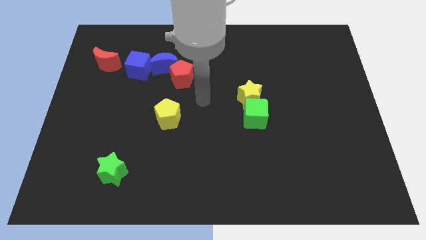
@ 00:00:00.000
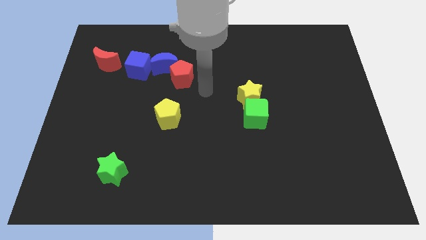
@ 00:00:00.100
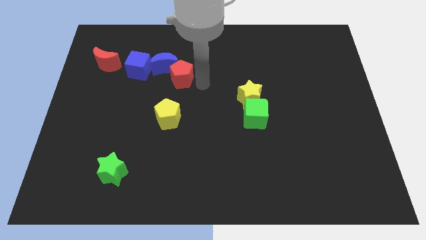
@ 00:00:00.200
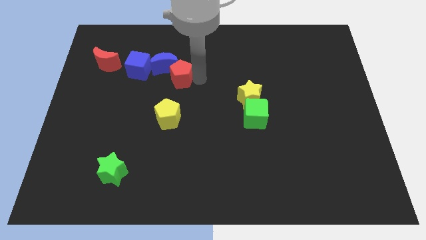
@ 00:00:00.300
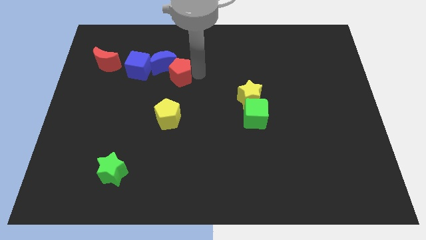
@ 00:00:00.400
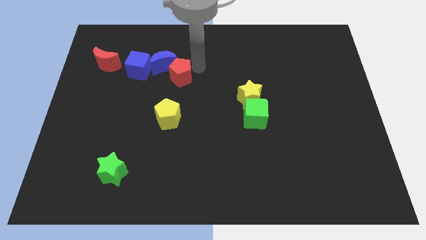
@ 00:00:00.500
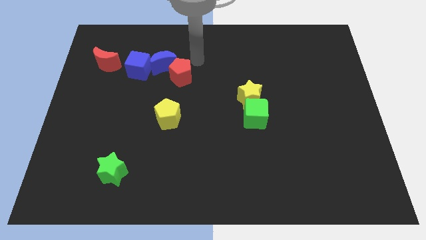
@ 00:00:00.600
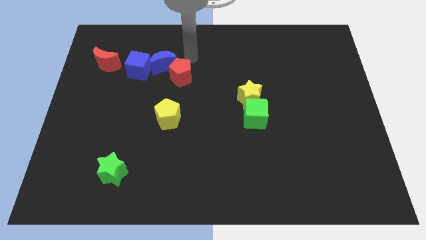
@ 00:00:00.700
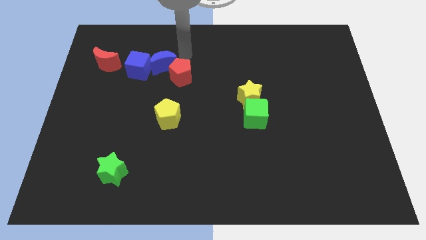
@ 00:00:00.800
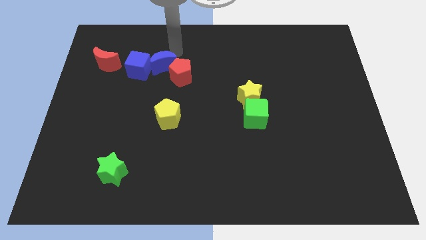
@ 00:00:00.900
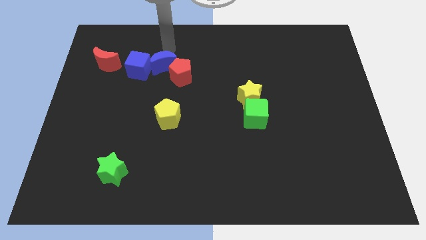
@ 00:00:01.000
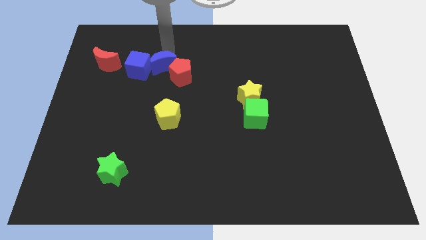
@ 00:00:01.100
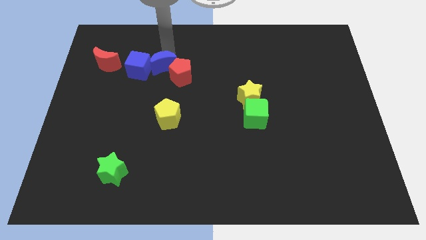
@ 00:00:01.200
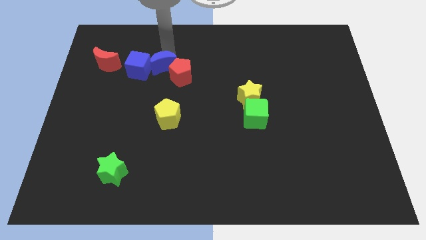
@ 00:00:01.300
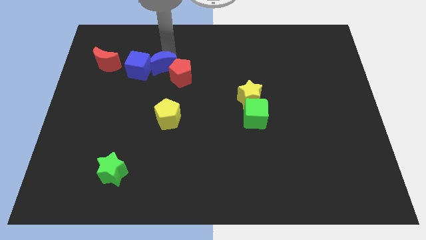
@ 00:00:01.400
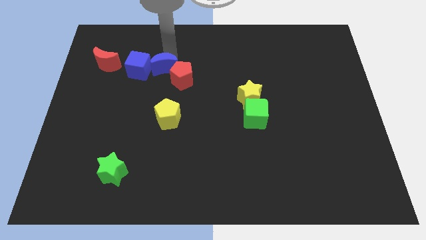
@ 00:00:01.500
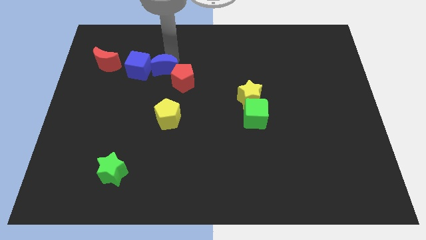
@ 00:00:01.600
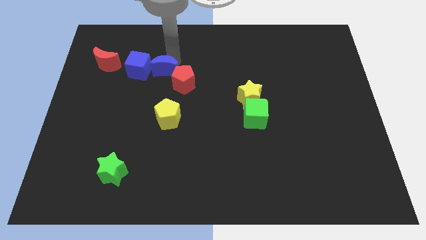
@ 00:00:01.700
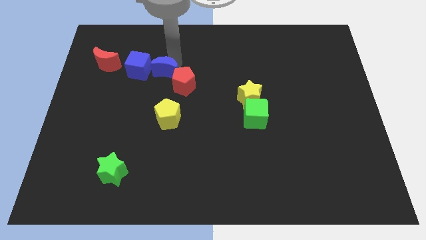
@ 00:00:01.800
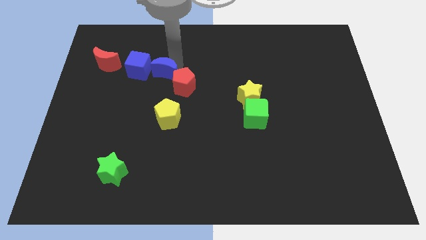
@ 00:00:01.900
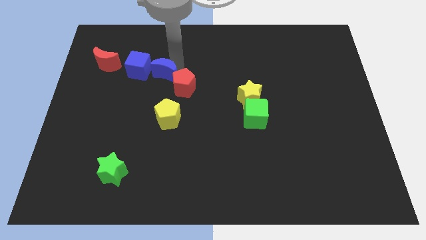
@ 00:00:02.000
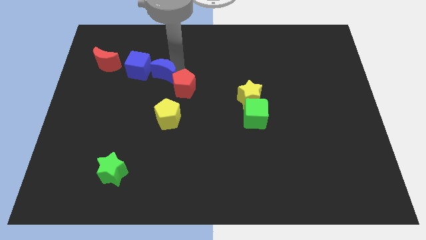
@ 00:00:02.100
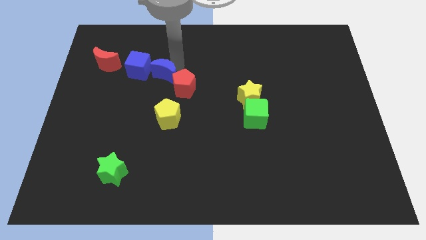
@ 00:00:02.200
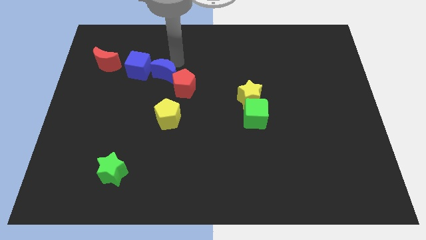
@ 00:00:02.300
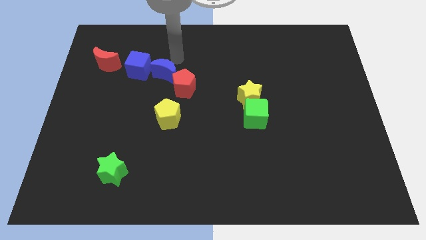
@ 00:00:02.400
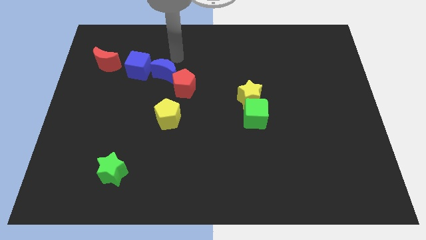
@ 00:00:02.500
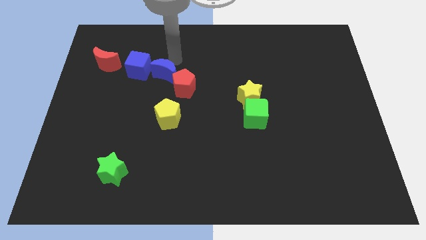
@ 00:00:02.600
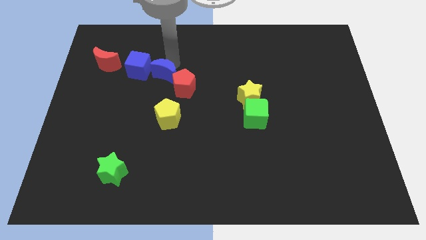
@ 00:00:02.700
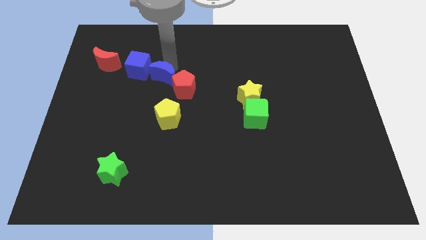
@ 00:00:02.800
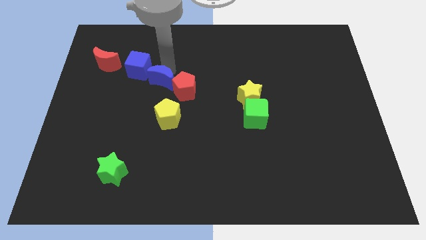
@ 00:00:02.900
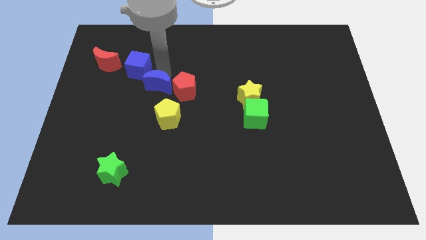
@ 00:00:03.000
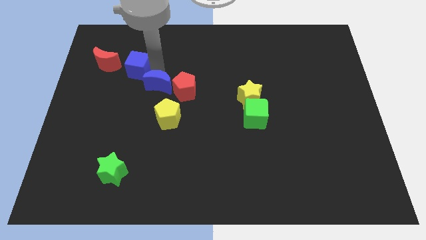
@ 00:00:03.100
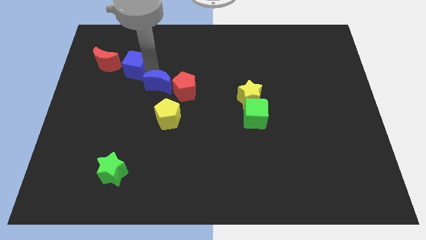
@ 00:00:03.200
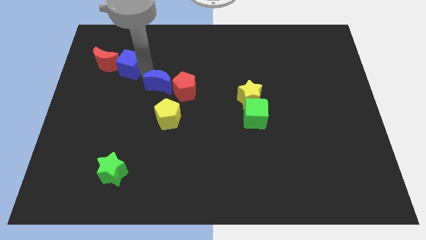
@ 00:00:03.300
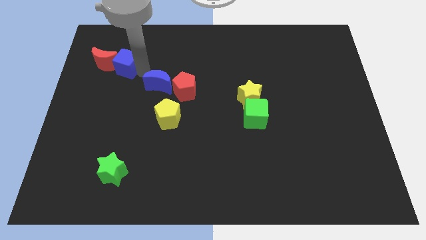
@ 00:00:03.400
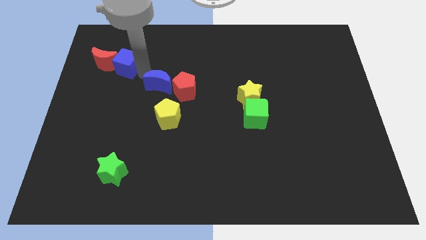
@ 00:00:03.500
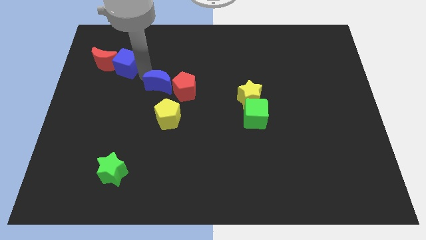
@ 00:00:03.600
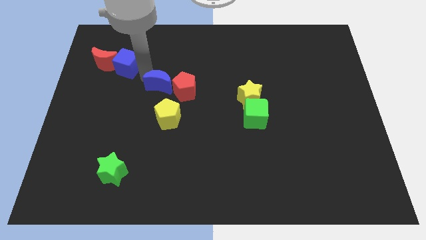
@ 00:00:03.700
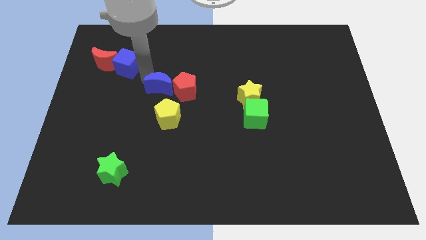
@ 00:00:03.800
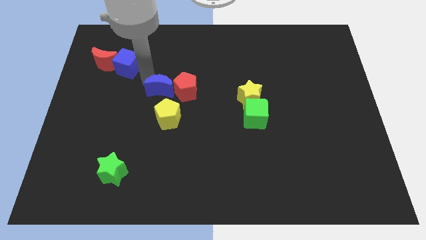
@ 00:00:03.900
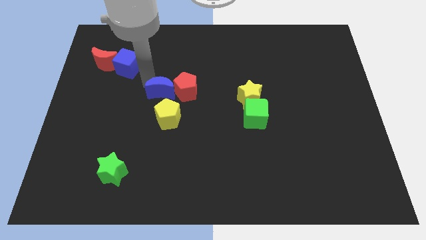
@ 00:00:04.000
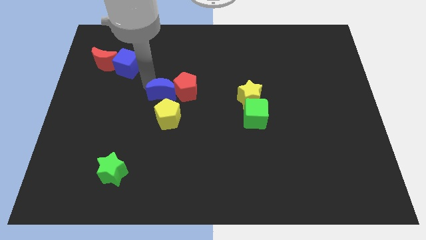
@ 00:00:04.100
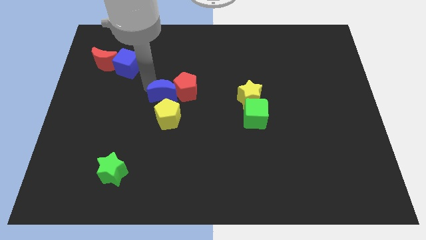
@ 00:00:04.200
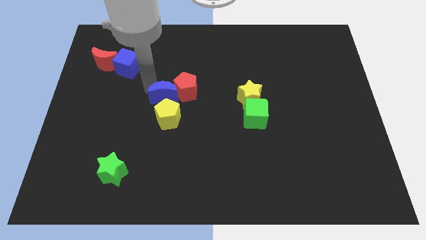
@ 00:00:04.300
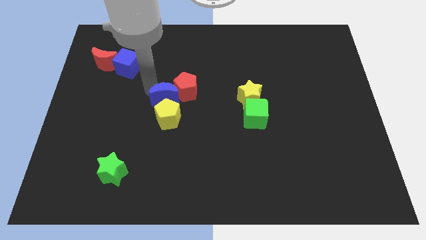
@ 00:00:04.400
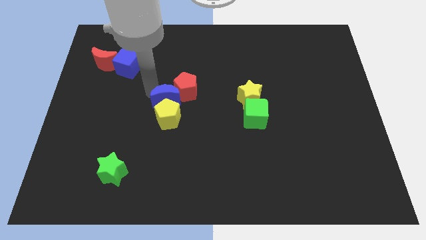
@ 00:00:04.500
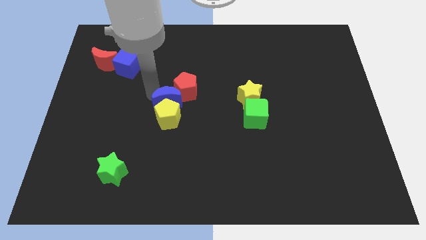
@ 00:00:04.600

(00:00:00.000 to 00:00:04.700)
push the blue moon diagonally down and to the right somewhat

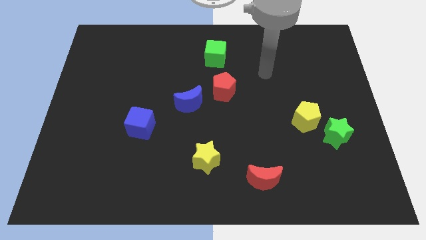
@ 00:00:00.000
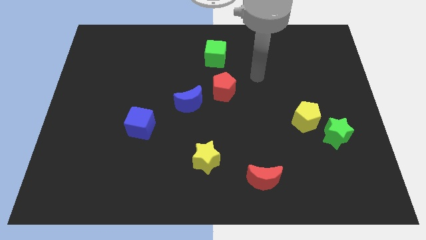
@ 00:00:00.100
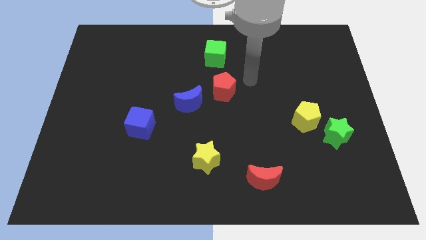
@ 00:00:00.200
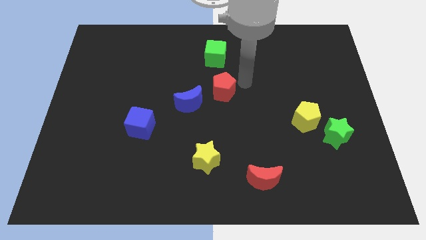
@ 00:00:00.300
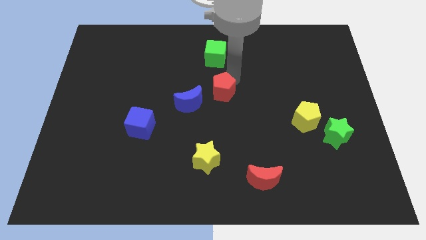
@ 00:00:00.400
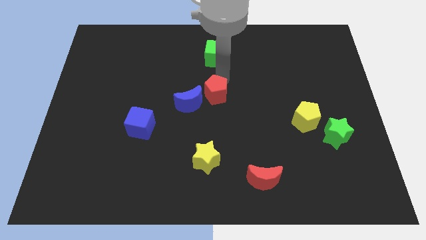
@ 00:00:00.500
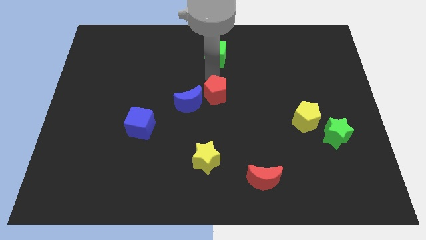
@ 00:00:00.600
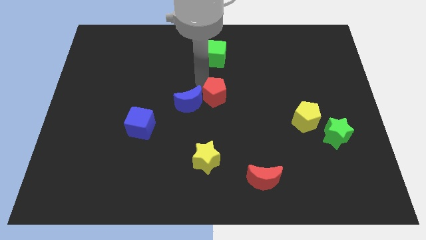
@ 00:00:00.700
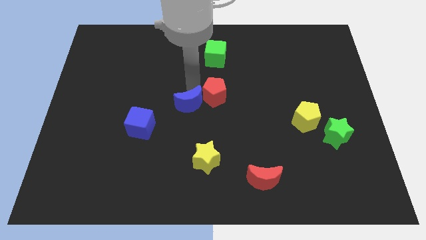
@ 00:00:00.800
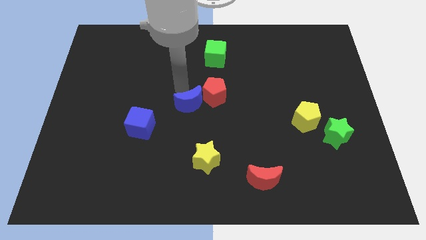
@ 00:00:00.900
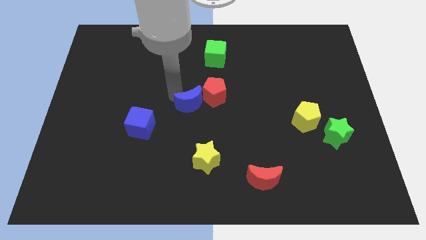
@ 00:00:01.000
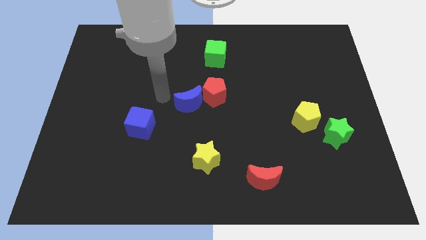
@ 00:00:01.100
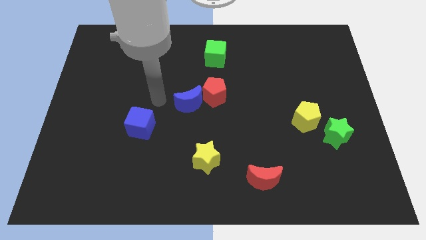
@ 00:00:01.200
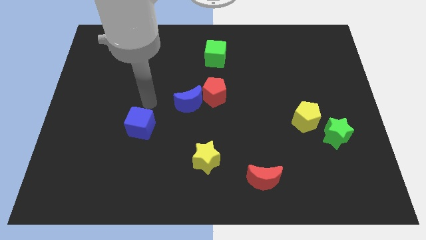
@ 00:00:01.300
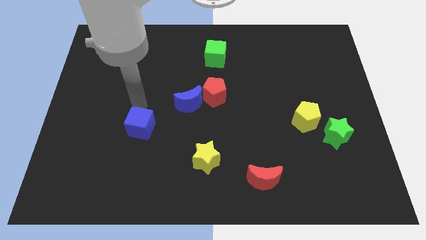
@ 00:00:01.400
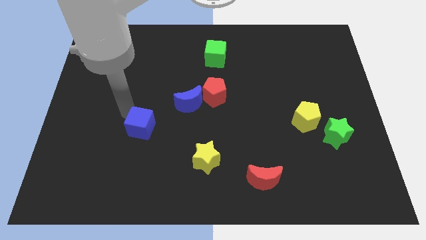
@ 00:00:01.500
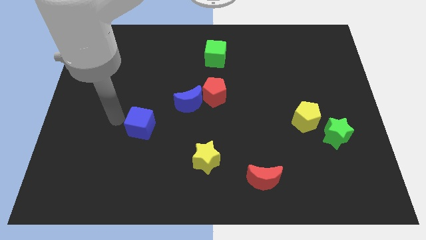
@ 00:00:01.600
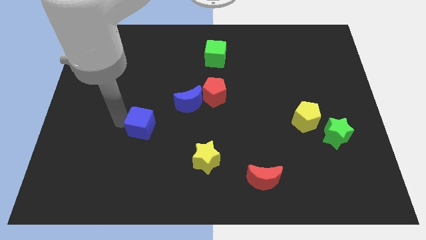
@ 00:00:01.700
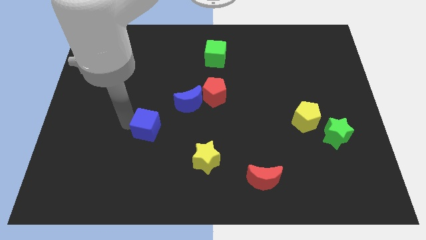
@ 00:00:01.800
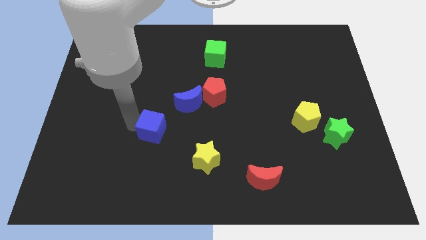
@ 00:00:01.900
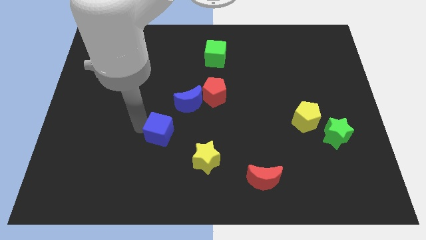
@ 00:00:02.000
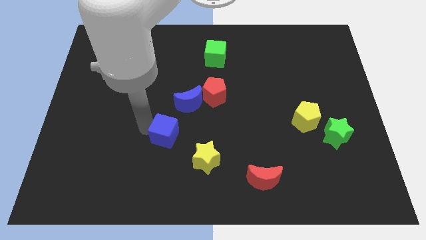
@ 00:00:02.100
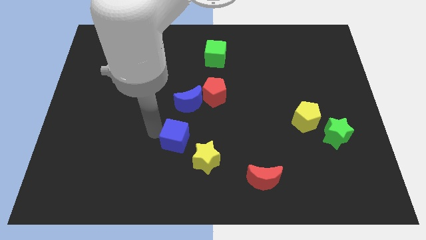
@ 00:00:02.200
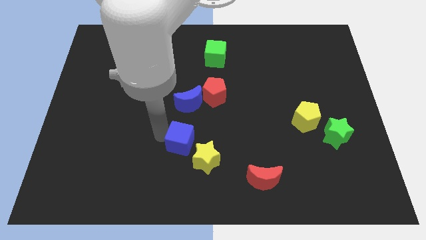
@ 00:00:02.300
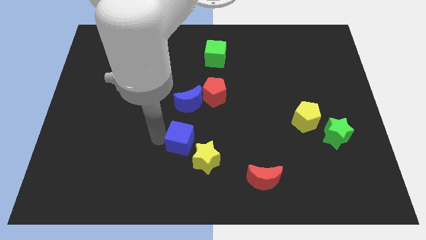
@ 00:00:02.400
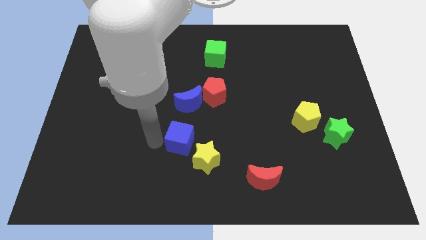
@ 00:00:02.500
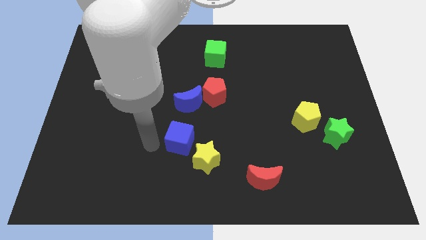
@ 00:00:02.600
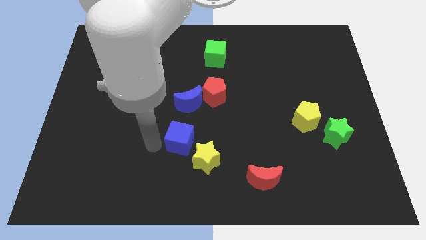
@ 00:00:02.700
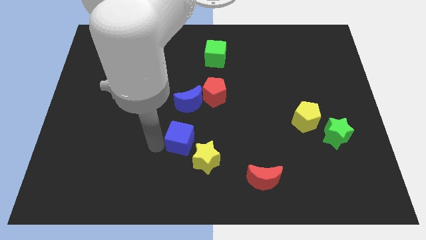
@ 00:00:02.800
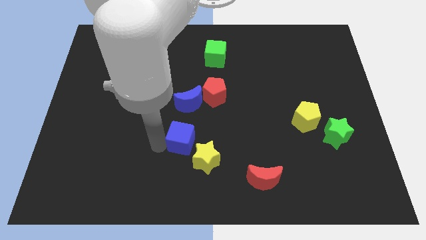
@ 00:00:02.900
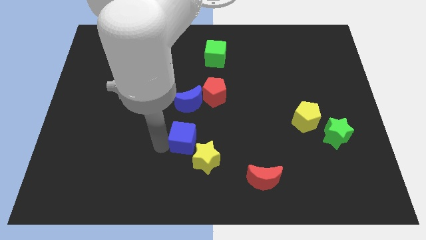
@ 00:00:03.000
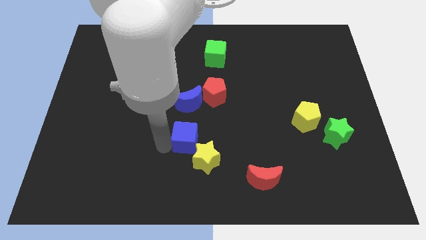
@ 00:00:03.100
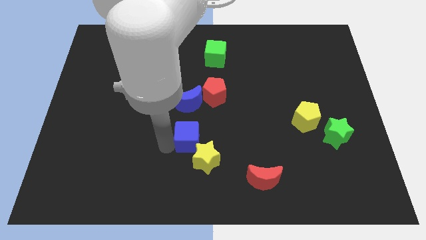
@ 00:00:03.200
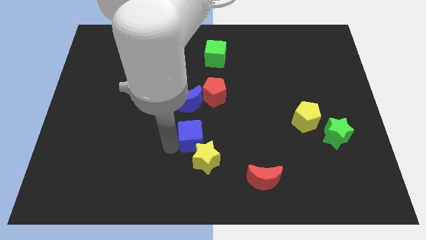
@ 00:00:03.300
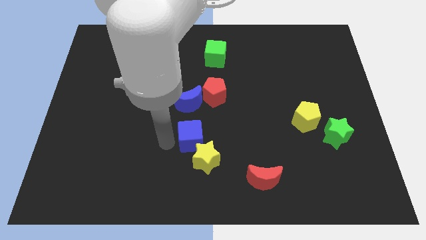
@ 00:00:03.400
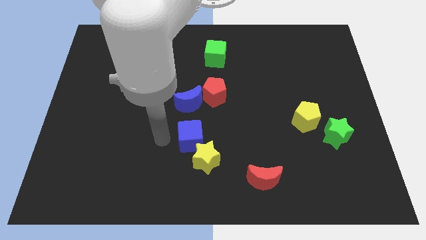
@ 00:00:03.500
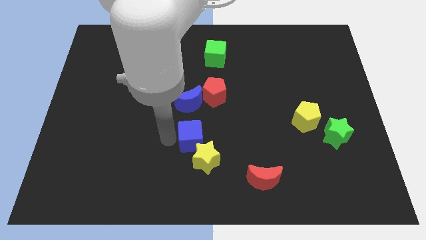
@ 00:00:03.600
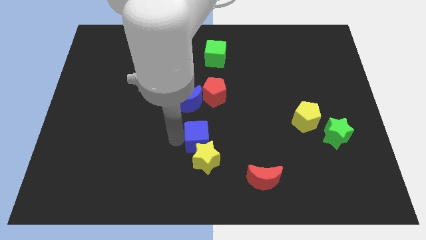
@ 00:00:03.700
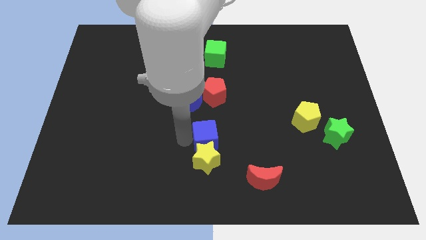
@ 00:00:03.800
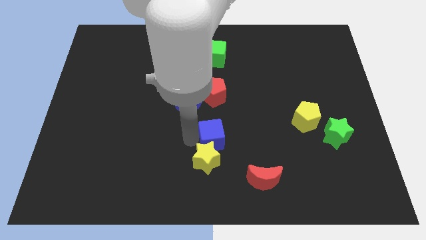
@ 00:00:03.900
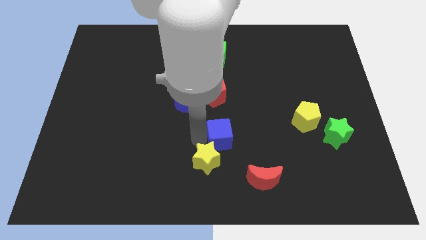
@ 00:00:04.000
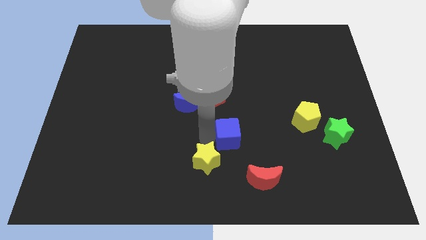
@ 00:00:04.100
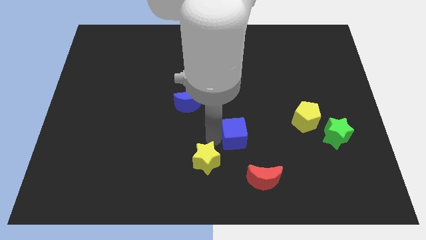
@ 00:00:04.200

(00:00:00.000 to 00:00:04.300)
move the blue cube to the right
